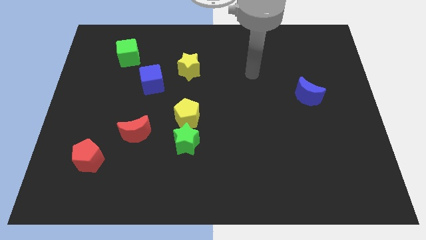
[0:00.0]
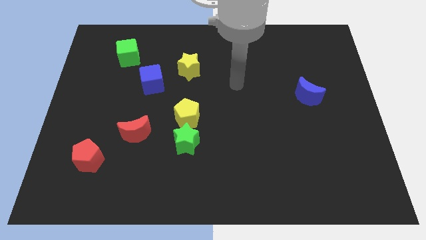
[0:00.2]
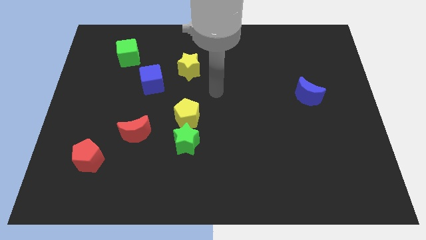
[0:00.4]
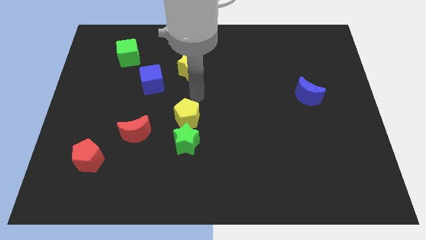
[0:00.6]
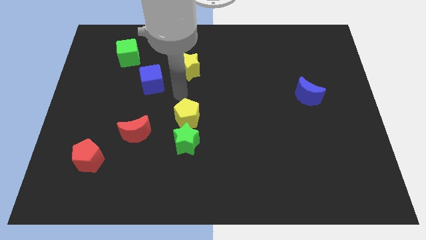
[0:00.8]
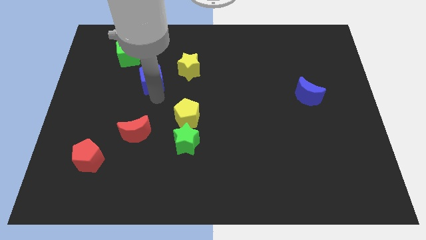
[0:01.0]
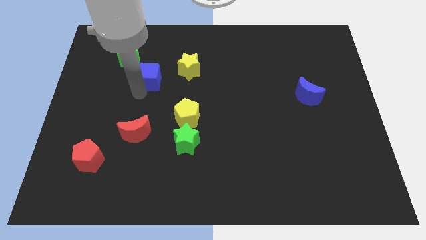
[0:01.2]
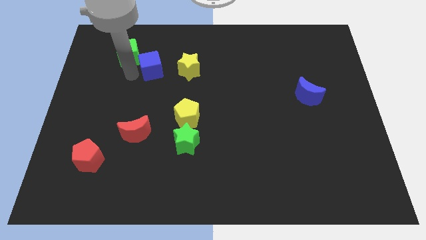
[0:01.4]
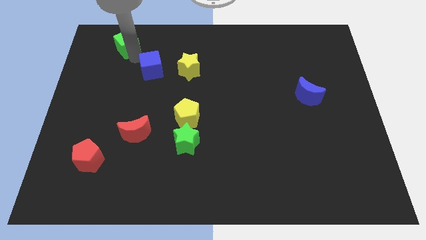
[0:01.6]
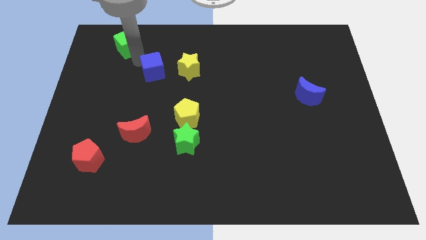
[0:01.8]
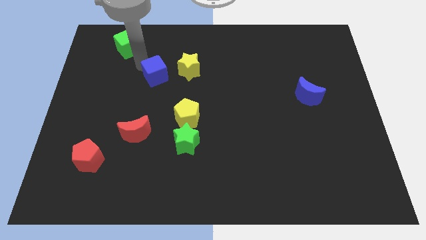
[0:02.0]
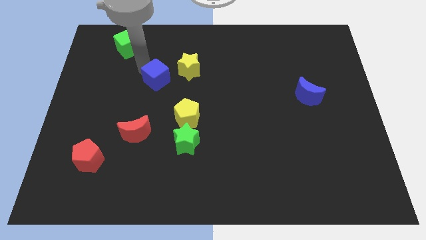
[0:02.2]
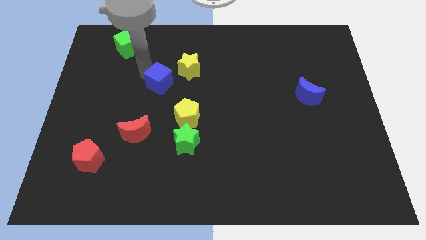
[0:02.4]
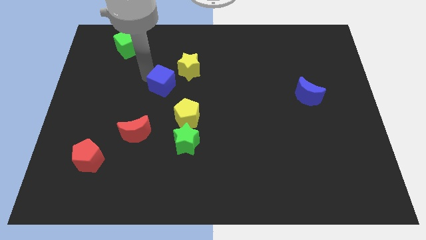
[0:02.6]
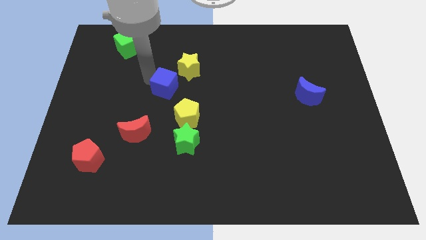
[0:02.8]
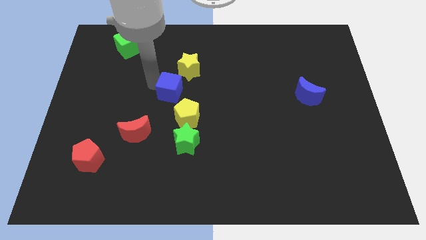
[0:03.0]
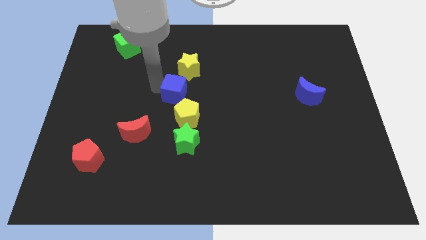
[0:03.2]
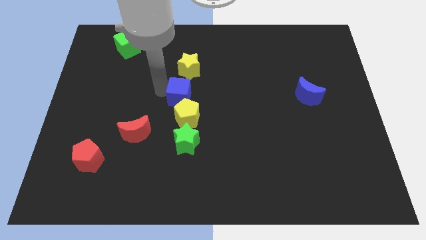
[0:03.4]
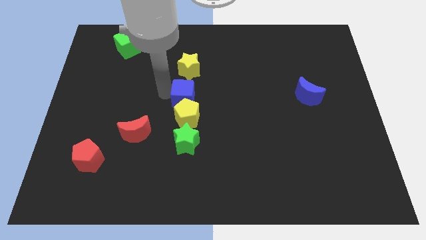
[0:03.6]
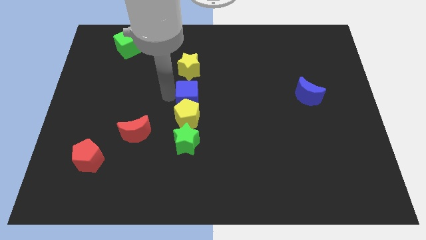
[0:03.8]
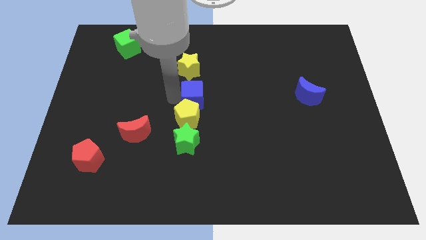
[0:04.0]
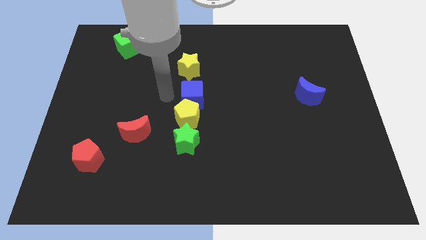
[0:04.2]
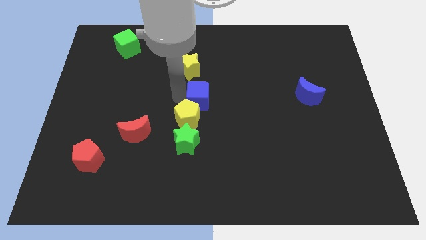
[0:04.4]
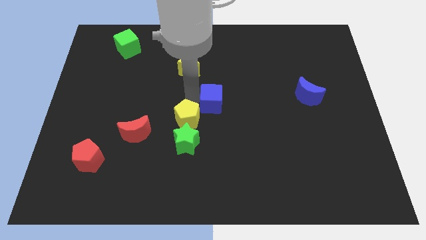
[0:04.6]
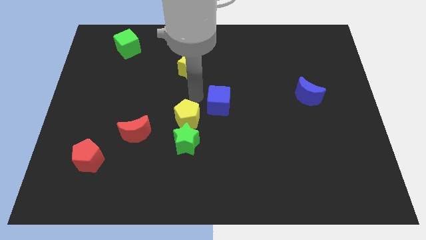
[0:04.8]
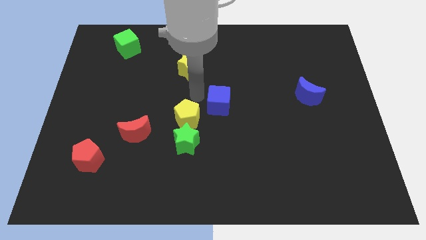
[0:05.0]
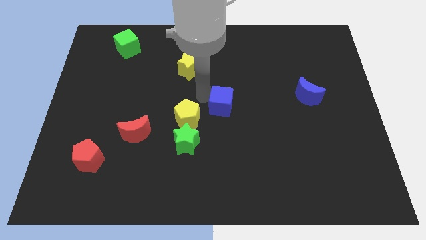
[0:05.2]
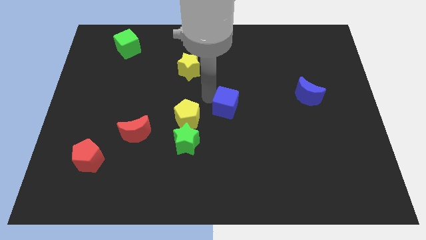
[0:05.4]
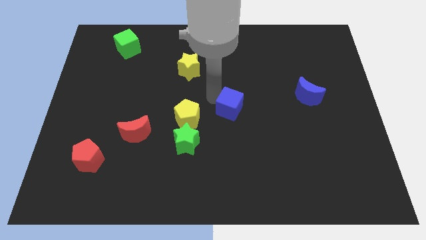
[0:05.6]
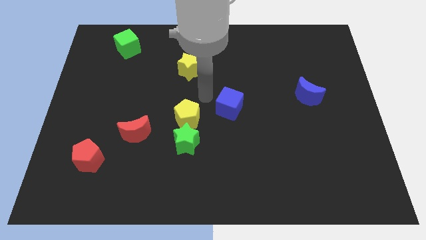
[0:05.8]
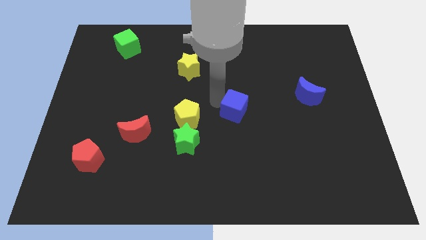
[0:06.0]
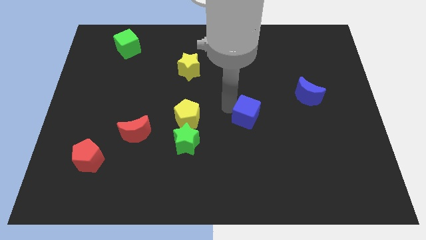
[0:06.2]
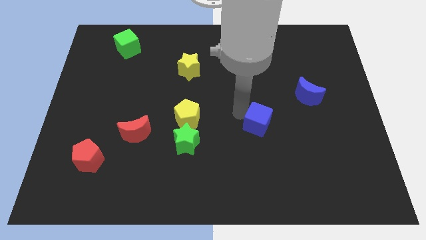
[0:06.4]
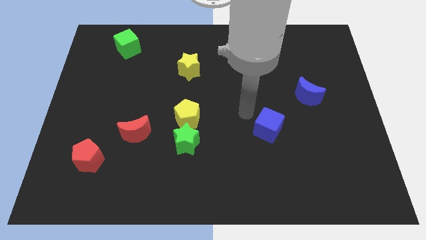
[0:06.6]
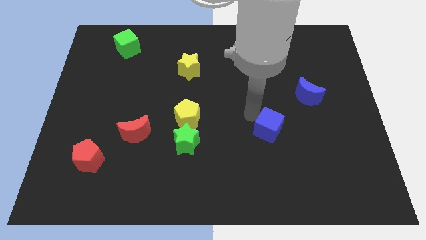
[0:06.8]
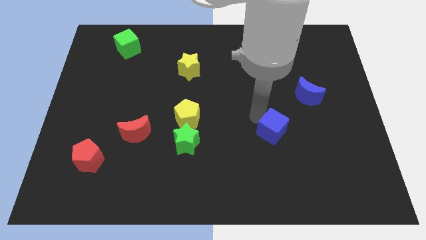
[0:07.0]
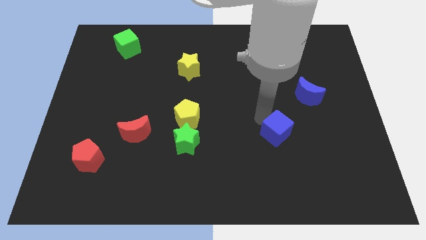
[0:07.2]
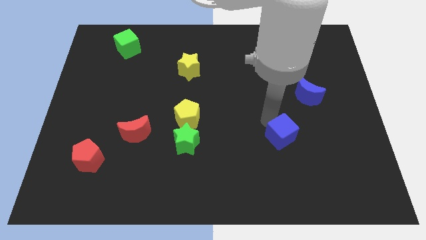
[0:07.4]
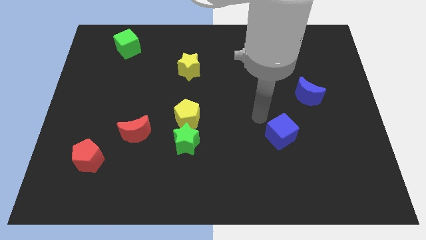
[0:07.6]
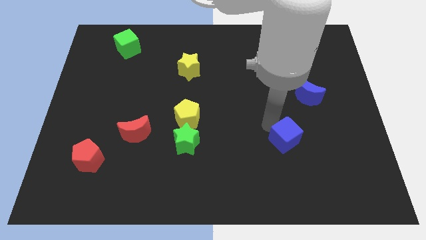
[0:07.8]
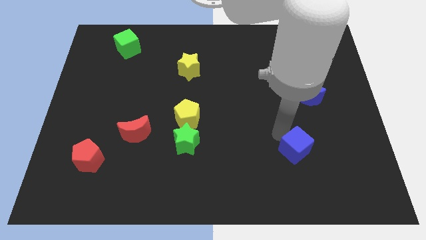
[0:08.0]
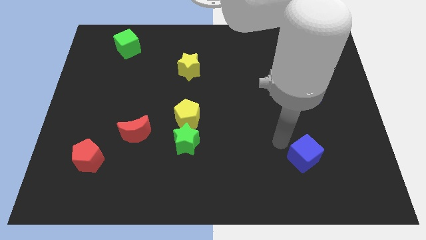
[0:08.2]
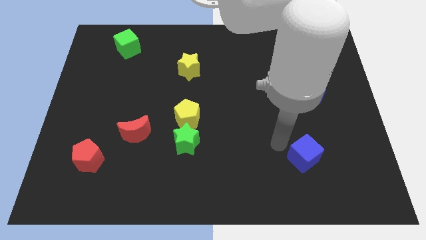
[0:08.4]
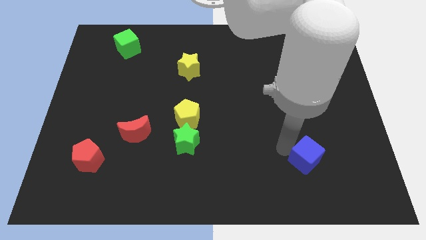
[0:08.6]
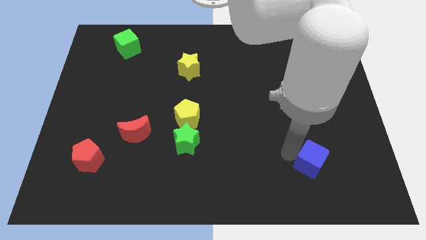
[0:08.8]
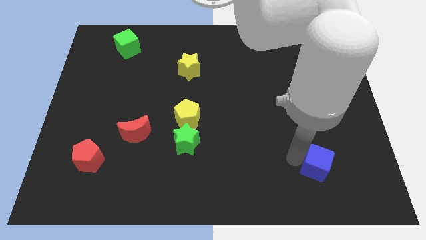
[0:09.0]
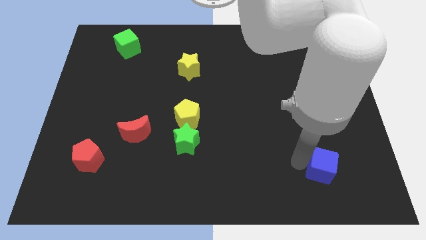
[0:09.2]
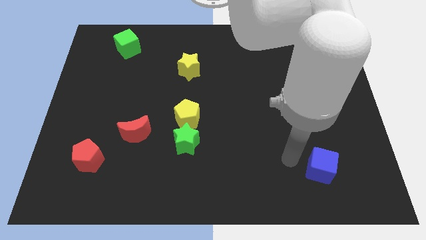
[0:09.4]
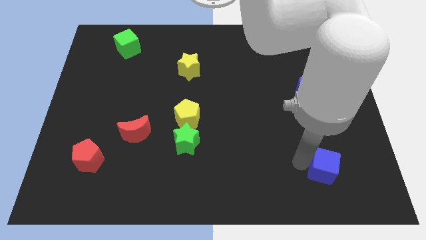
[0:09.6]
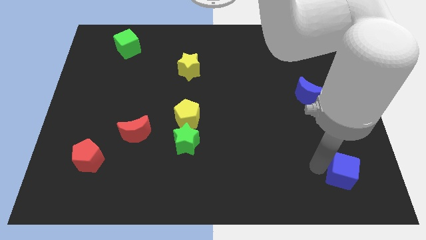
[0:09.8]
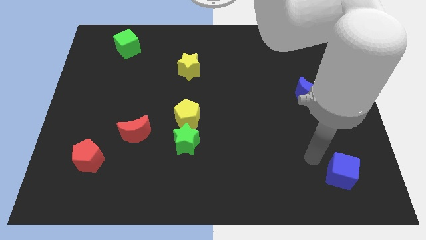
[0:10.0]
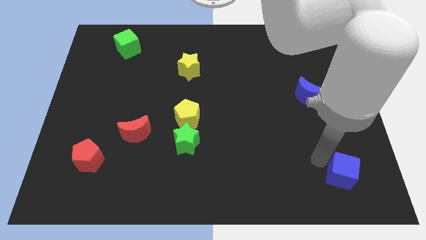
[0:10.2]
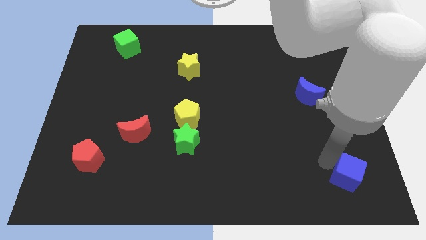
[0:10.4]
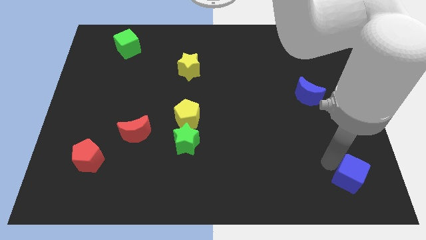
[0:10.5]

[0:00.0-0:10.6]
slide the blue cube to the bottom right

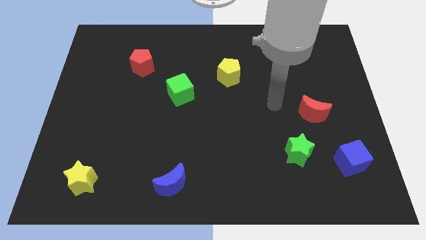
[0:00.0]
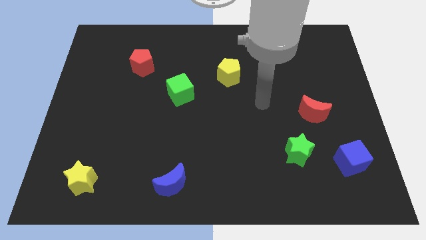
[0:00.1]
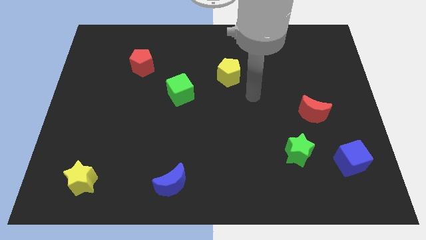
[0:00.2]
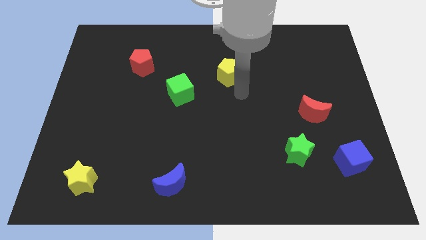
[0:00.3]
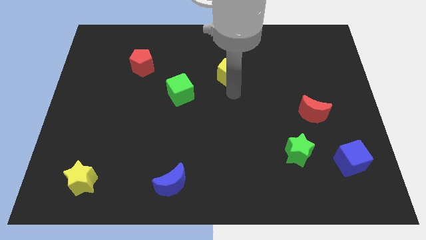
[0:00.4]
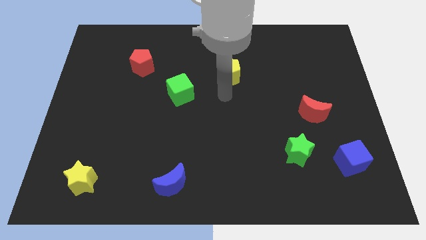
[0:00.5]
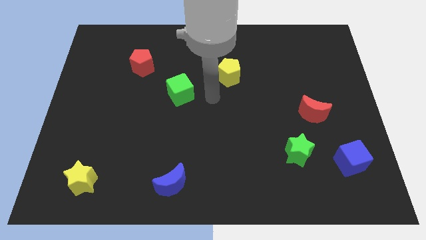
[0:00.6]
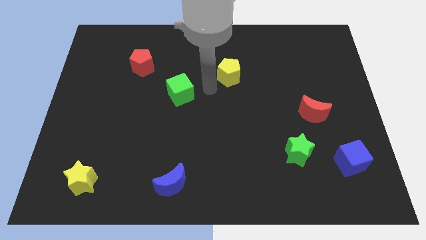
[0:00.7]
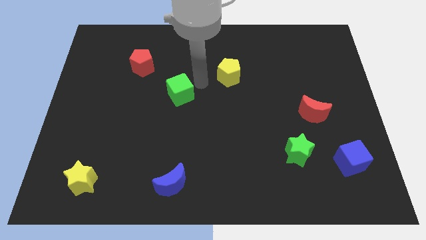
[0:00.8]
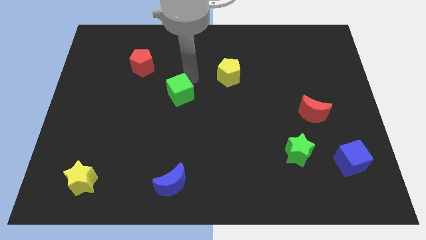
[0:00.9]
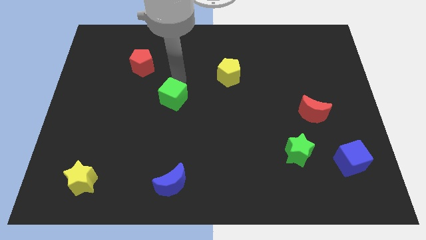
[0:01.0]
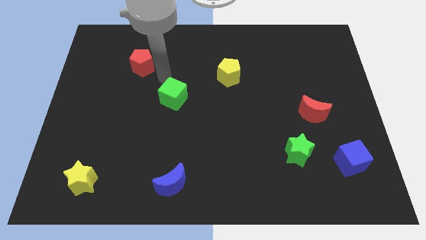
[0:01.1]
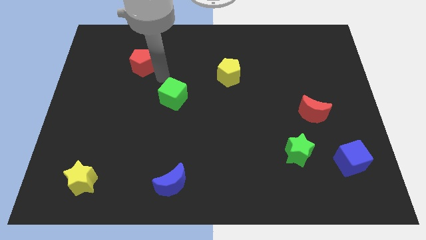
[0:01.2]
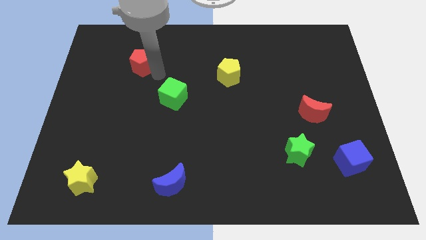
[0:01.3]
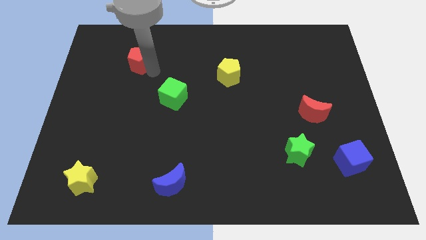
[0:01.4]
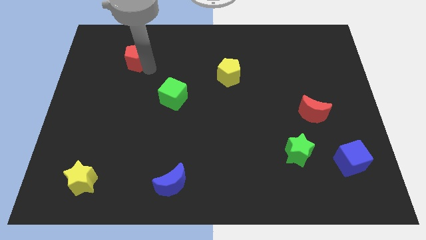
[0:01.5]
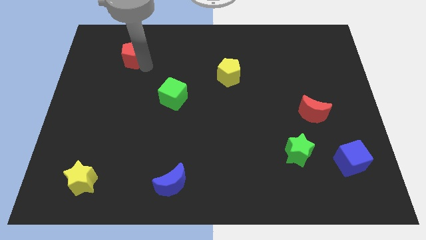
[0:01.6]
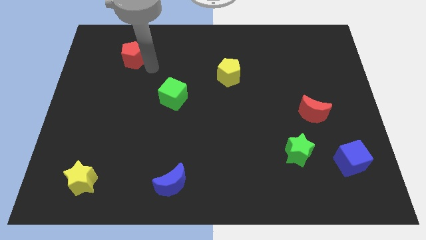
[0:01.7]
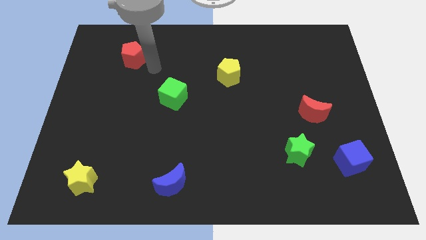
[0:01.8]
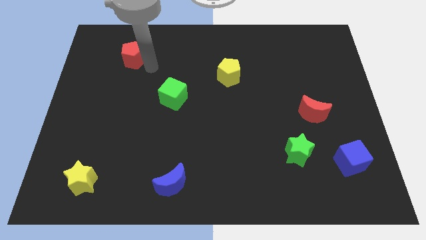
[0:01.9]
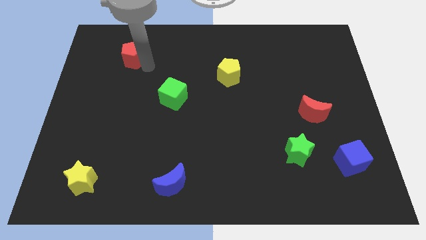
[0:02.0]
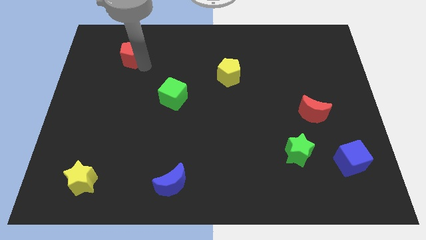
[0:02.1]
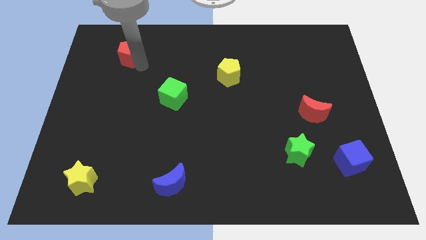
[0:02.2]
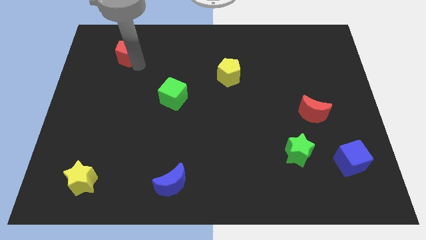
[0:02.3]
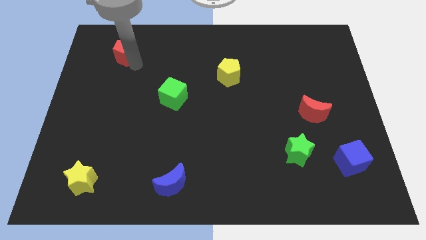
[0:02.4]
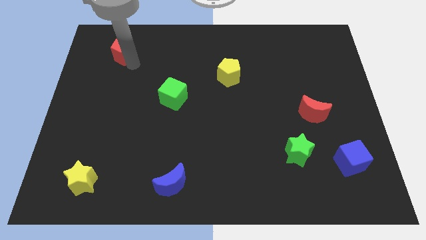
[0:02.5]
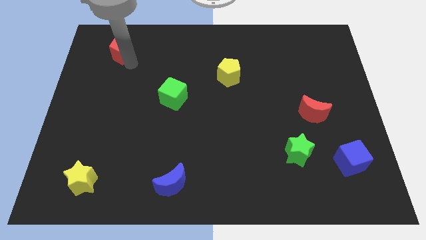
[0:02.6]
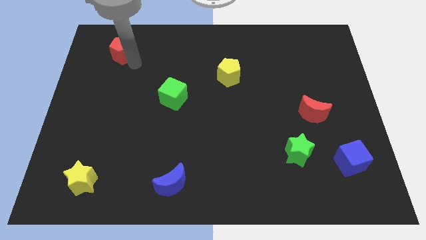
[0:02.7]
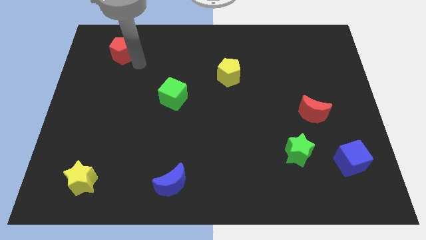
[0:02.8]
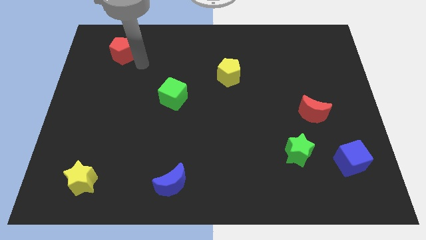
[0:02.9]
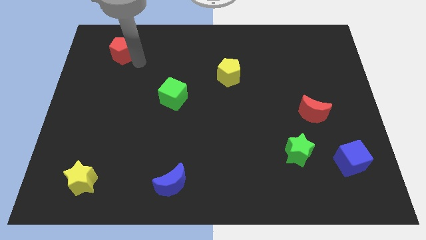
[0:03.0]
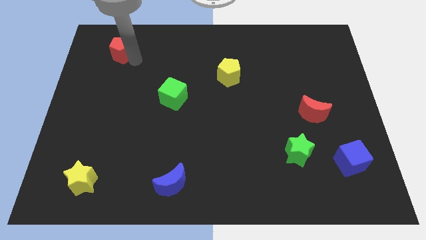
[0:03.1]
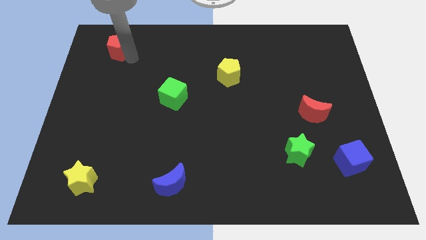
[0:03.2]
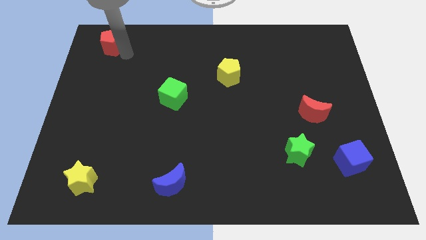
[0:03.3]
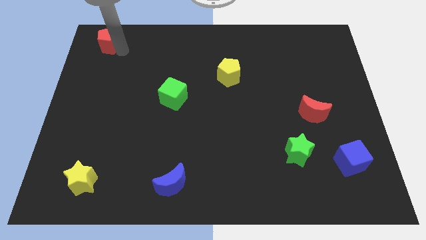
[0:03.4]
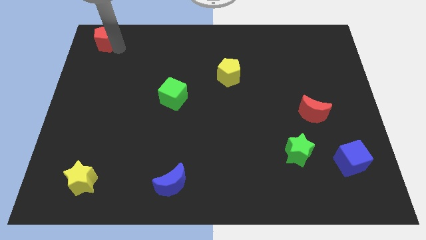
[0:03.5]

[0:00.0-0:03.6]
slide the red pentagon to the top left
